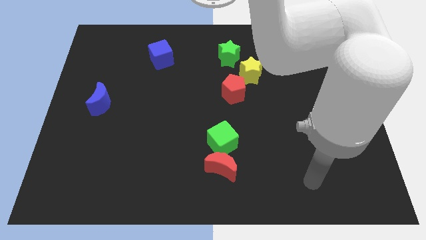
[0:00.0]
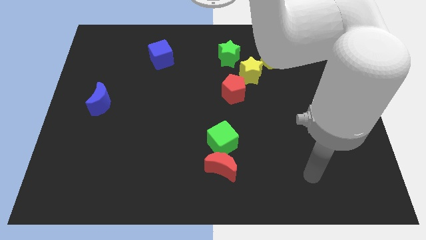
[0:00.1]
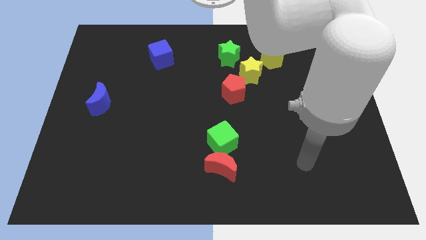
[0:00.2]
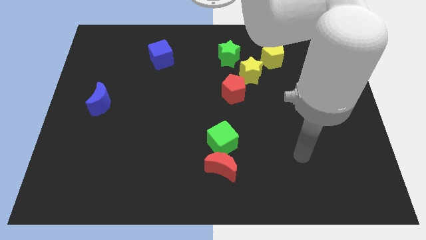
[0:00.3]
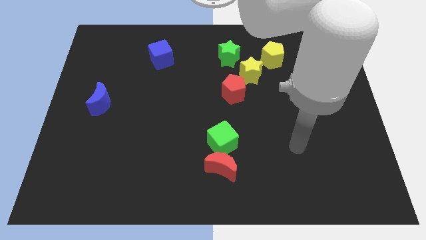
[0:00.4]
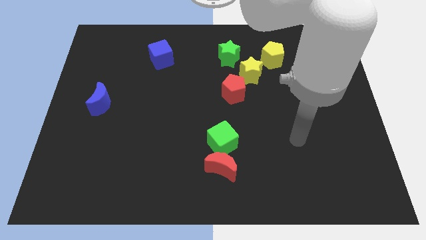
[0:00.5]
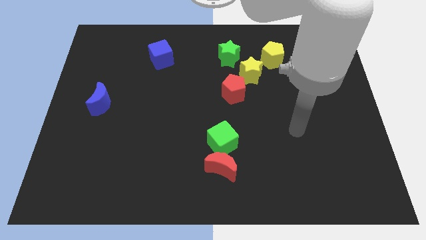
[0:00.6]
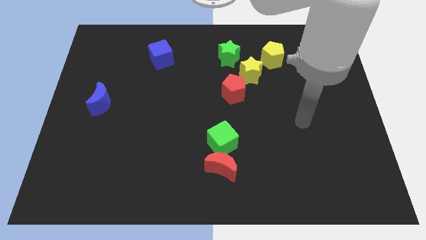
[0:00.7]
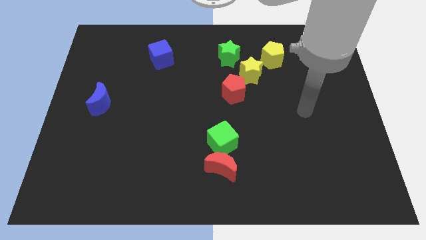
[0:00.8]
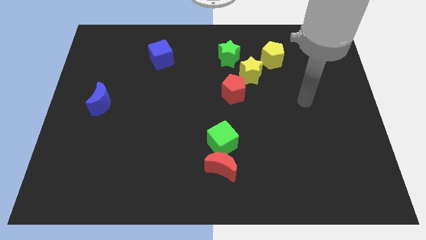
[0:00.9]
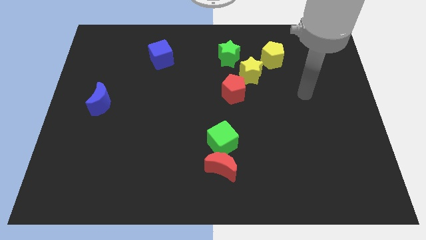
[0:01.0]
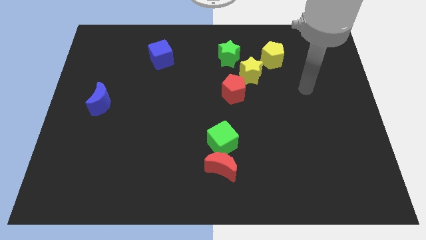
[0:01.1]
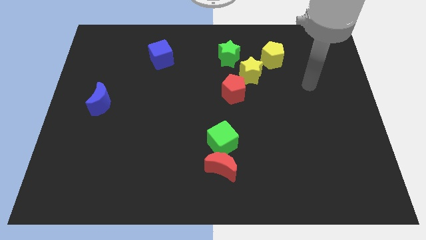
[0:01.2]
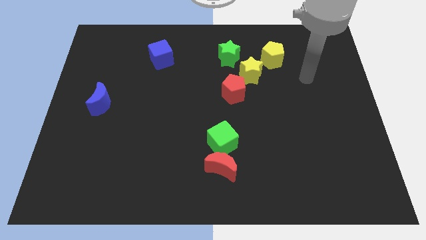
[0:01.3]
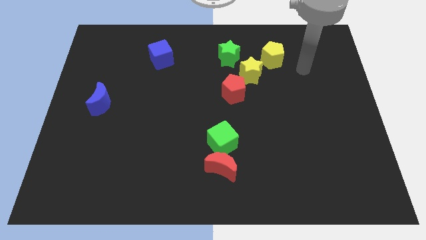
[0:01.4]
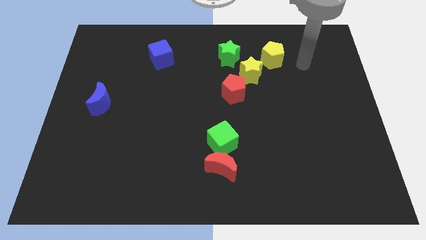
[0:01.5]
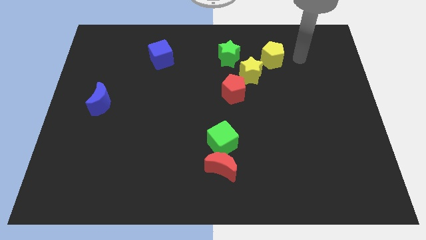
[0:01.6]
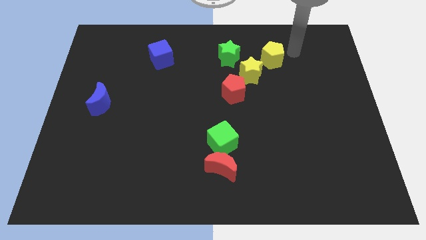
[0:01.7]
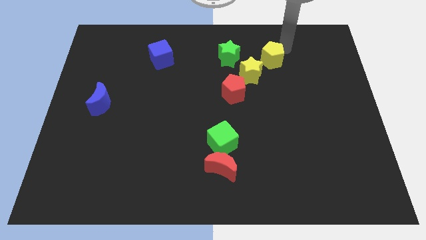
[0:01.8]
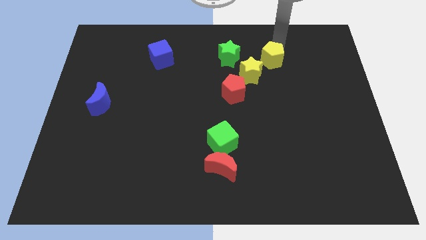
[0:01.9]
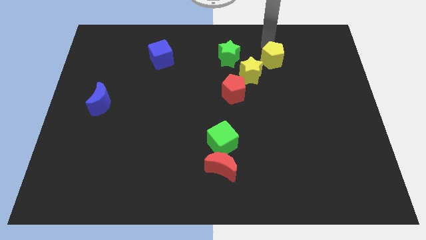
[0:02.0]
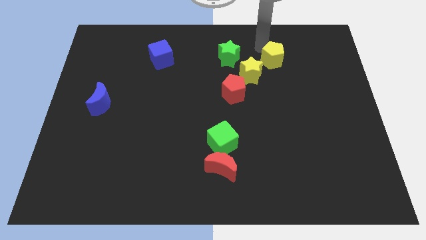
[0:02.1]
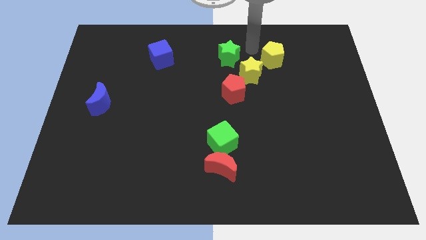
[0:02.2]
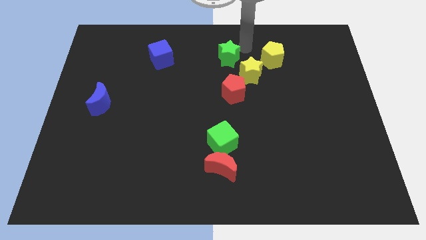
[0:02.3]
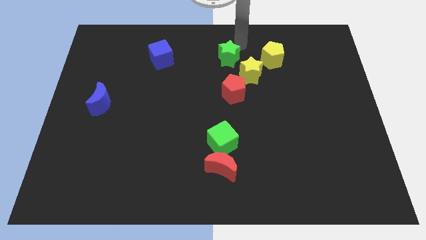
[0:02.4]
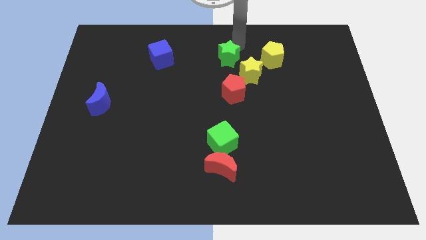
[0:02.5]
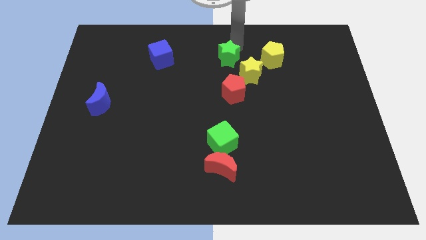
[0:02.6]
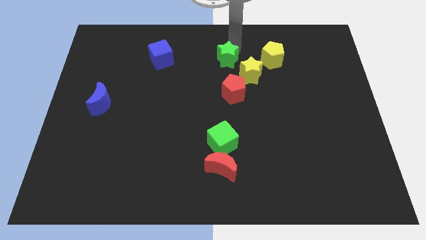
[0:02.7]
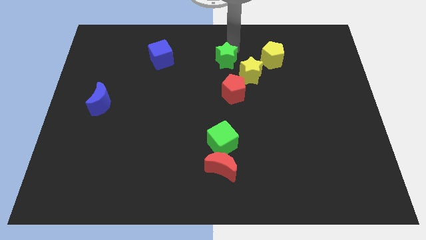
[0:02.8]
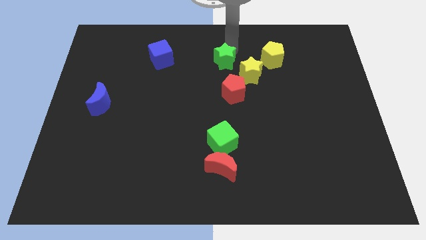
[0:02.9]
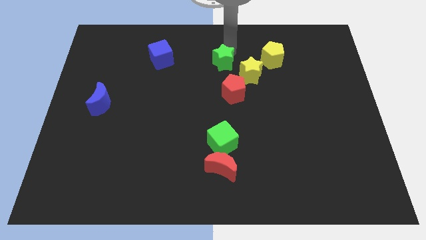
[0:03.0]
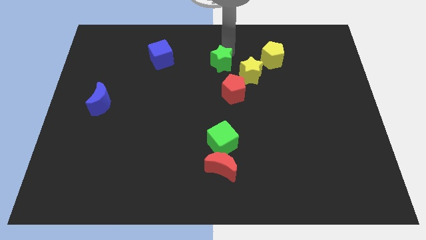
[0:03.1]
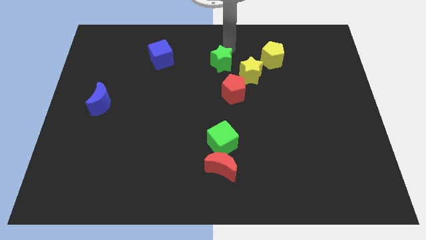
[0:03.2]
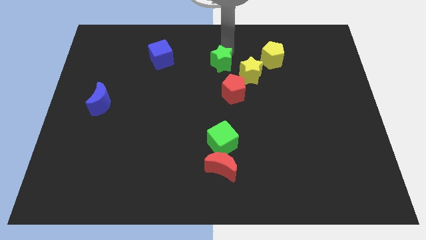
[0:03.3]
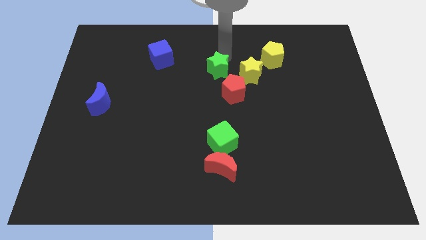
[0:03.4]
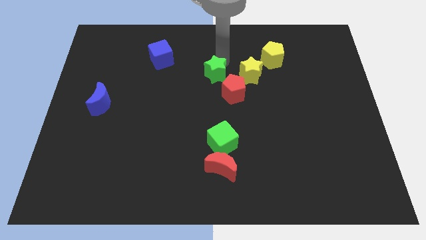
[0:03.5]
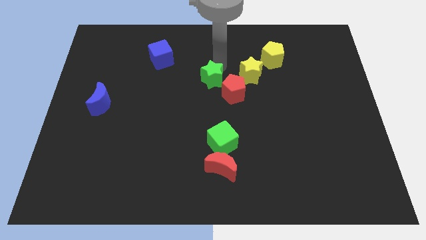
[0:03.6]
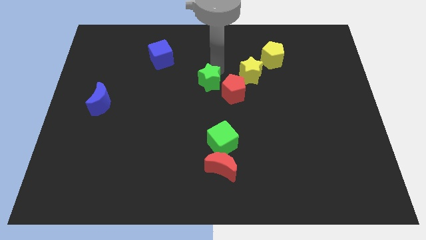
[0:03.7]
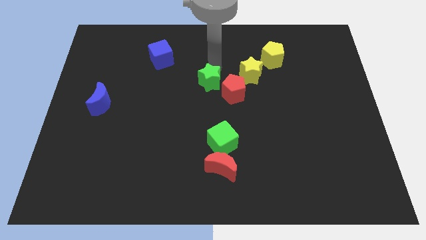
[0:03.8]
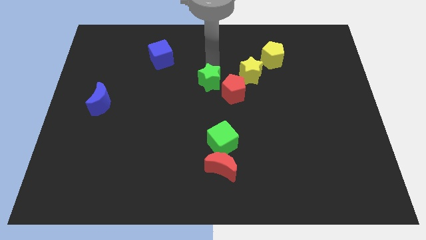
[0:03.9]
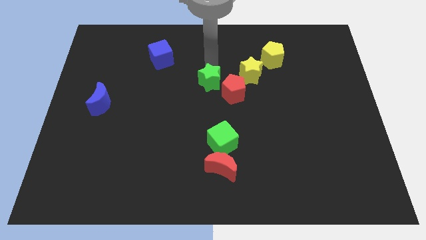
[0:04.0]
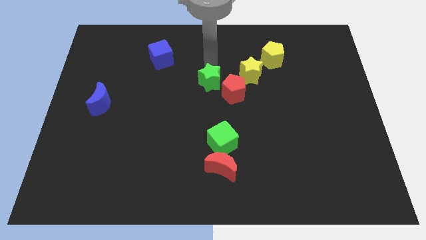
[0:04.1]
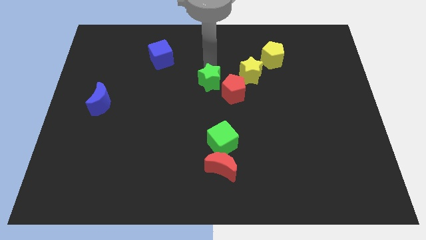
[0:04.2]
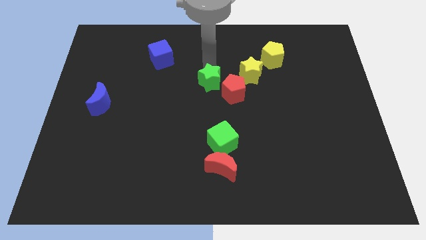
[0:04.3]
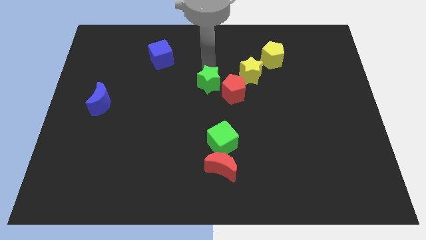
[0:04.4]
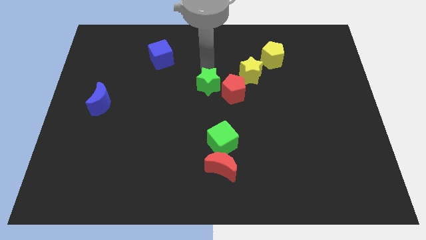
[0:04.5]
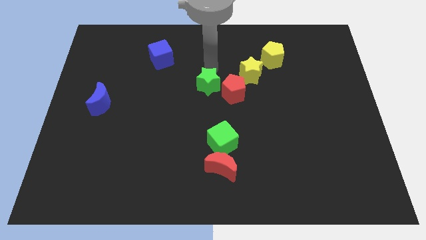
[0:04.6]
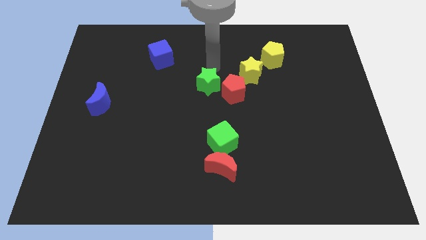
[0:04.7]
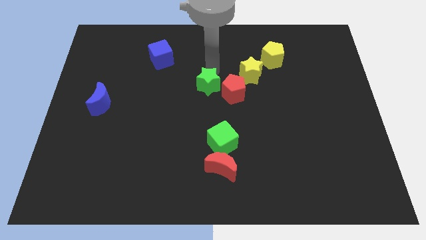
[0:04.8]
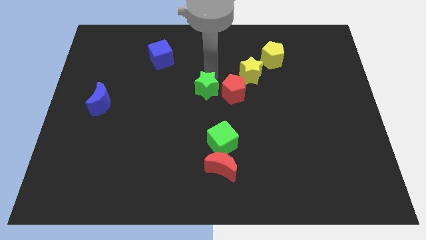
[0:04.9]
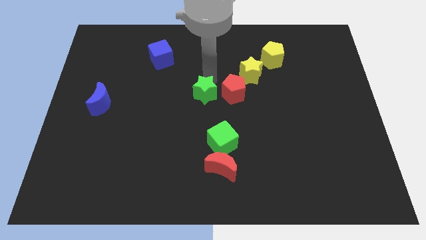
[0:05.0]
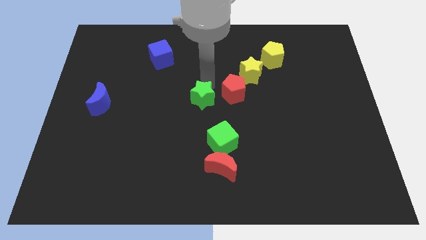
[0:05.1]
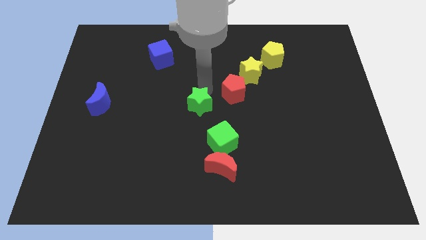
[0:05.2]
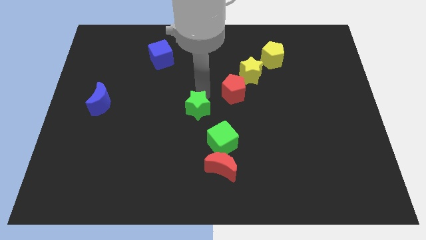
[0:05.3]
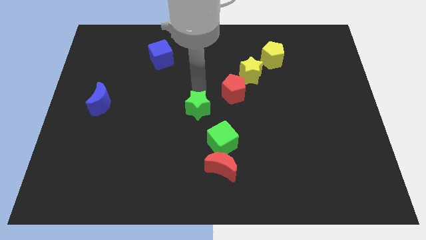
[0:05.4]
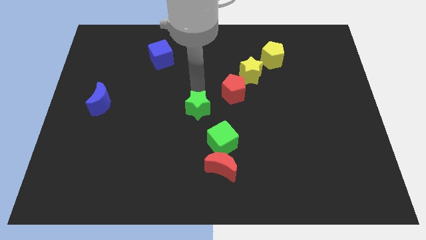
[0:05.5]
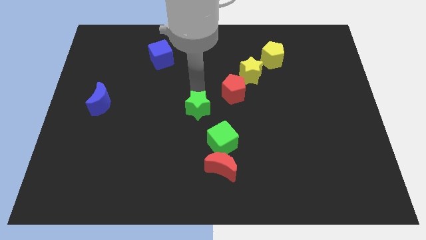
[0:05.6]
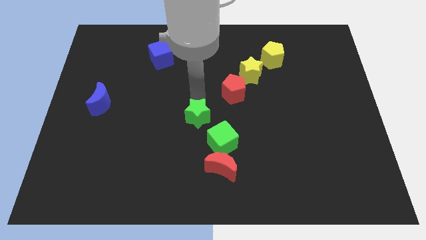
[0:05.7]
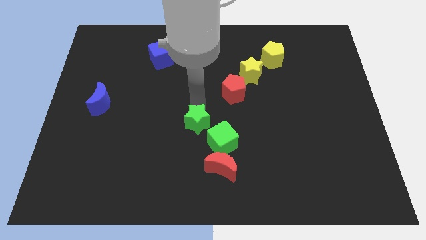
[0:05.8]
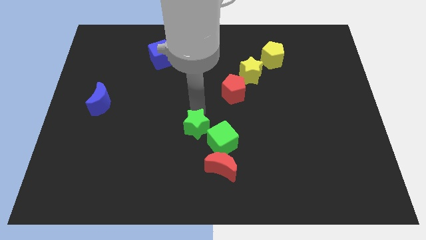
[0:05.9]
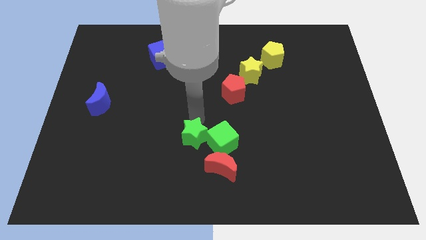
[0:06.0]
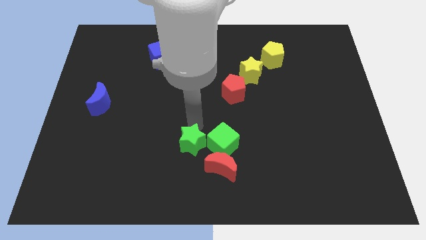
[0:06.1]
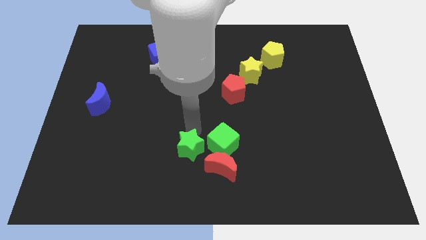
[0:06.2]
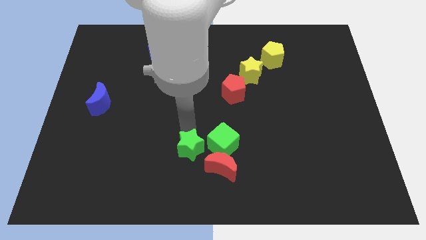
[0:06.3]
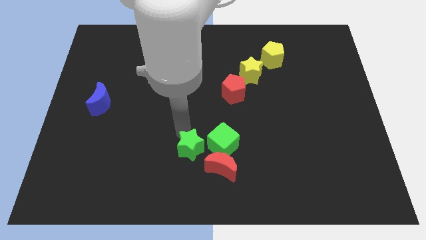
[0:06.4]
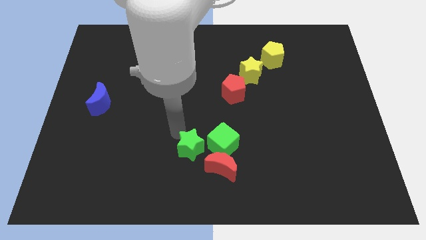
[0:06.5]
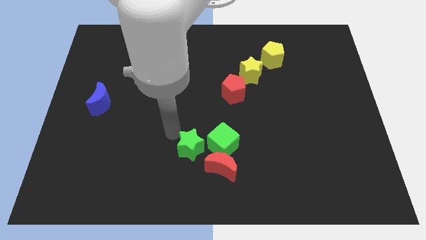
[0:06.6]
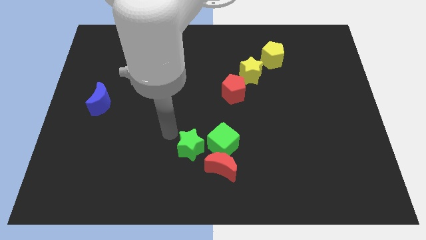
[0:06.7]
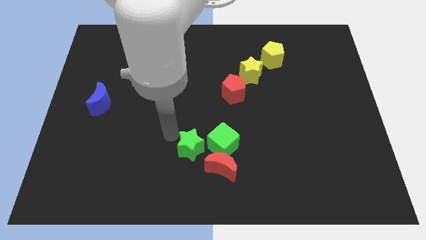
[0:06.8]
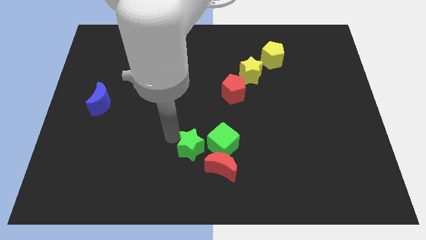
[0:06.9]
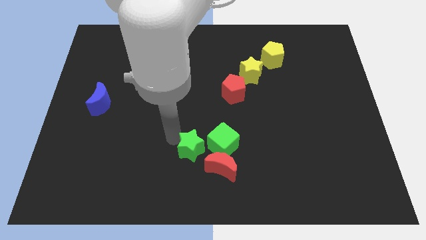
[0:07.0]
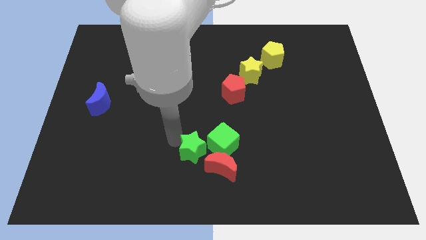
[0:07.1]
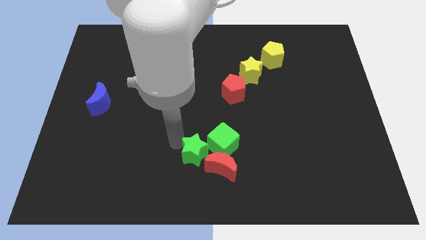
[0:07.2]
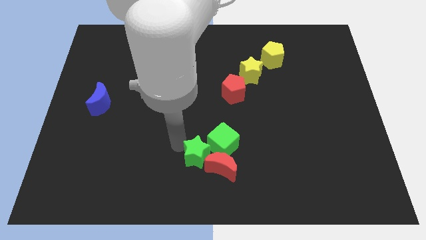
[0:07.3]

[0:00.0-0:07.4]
push the green star to the red moon

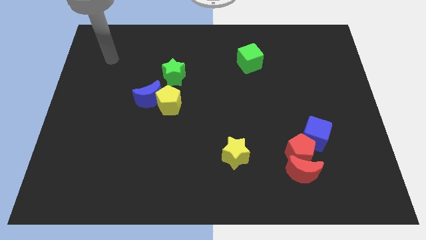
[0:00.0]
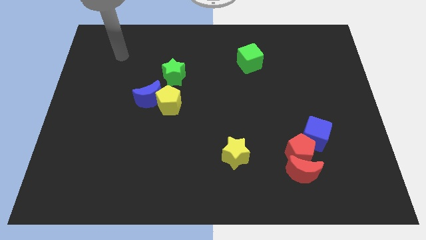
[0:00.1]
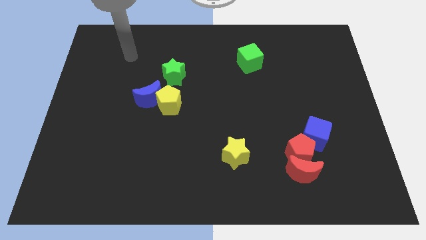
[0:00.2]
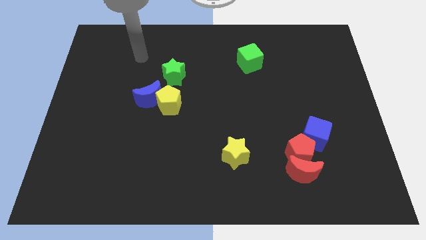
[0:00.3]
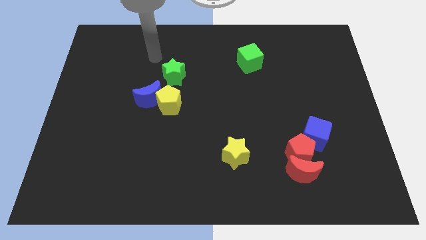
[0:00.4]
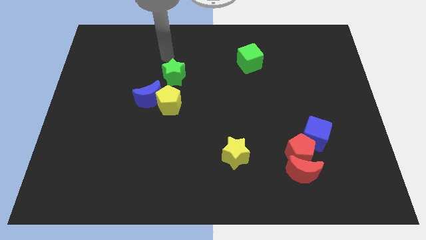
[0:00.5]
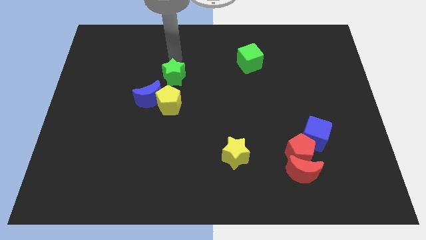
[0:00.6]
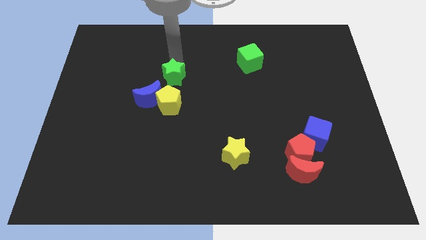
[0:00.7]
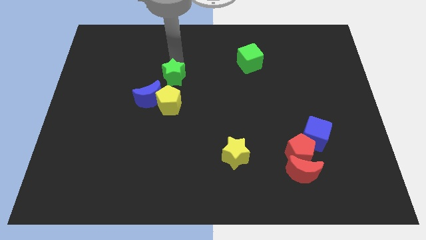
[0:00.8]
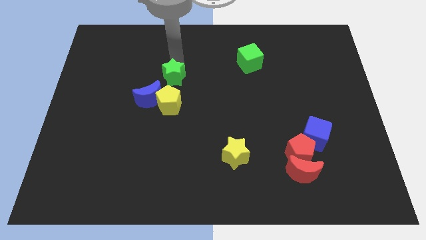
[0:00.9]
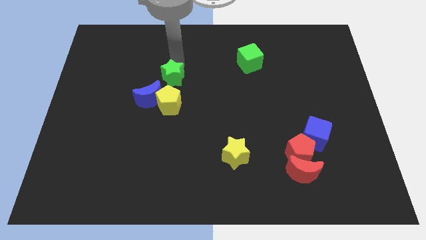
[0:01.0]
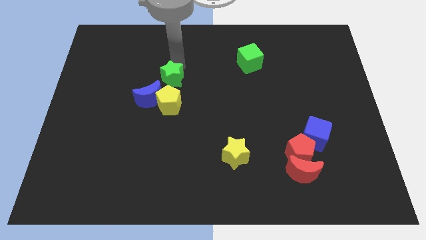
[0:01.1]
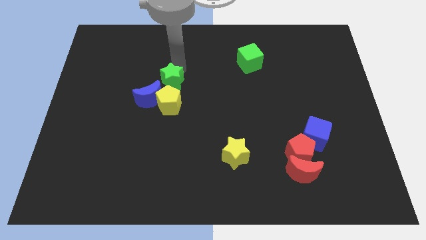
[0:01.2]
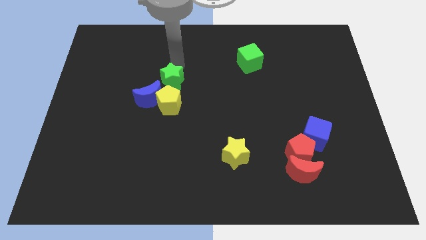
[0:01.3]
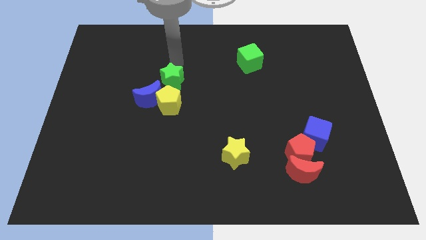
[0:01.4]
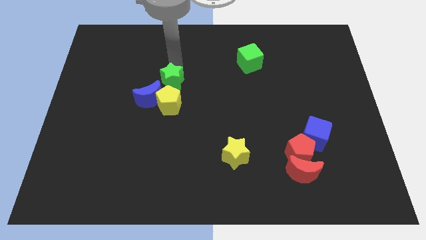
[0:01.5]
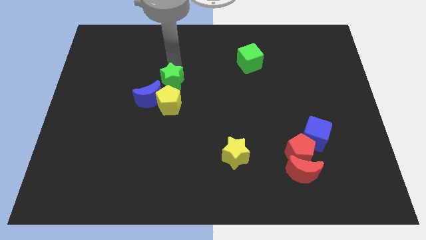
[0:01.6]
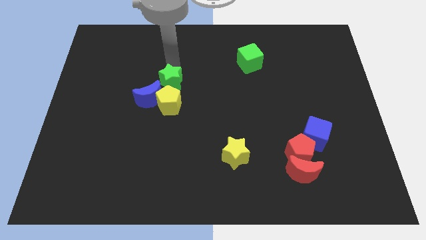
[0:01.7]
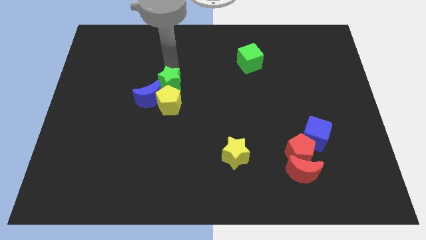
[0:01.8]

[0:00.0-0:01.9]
move the green star to the yellow pentagon
